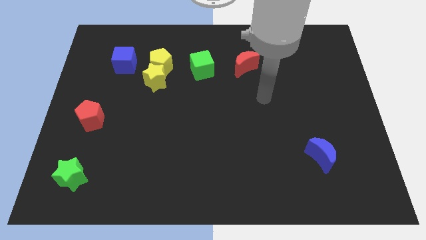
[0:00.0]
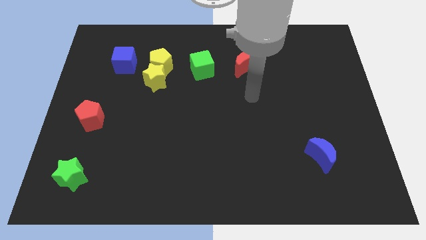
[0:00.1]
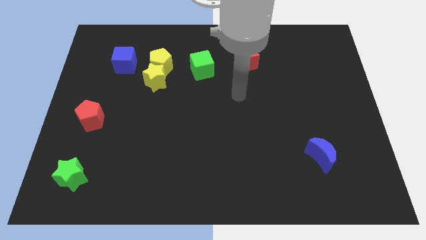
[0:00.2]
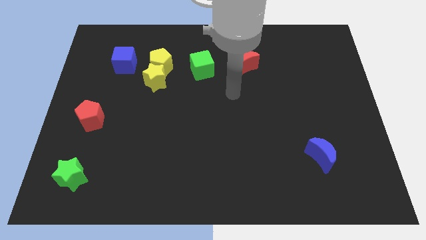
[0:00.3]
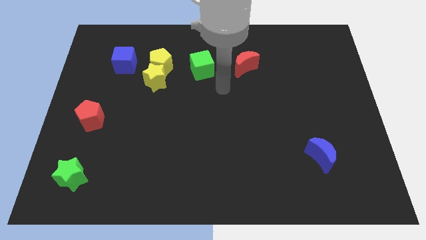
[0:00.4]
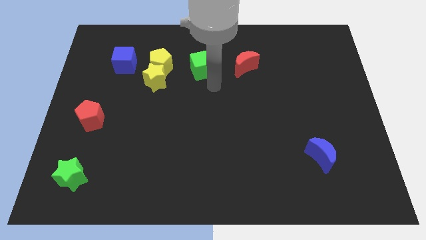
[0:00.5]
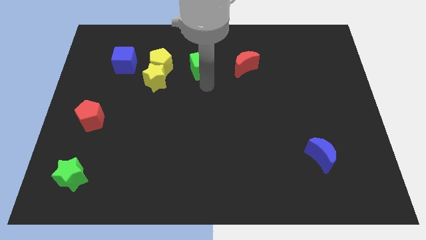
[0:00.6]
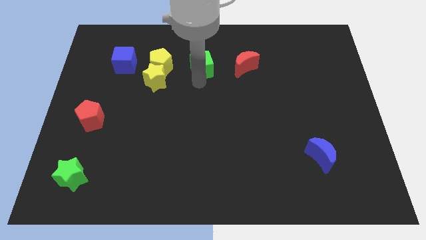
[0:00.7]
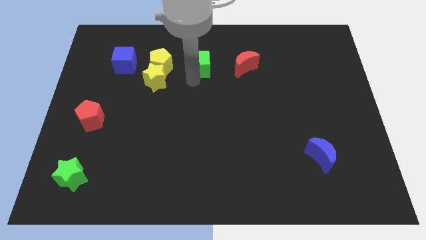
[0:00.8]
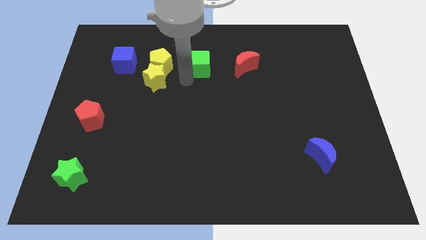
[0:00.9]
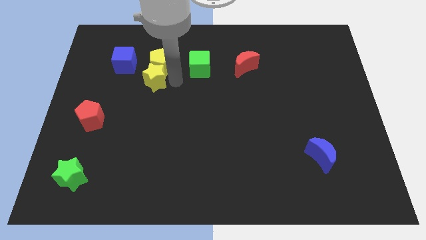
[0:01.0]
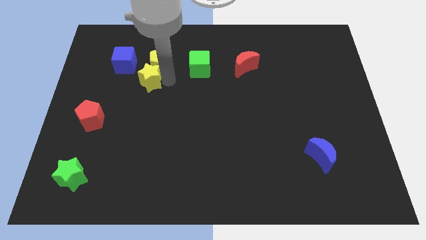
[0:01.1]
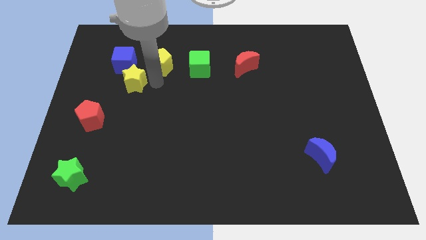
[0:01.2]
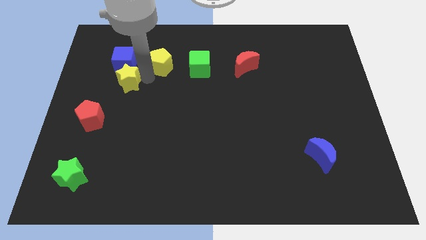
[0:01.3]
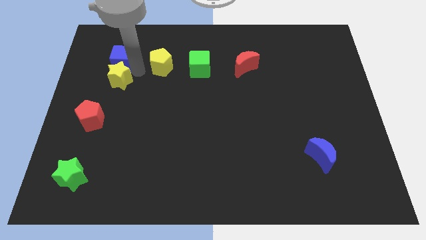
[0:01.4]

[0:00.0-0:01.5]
pull the yellow pentagon apart from the yellow star and blue cube

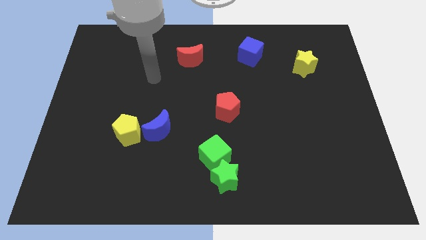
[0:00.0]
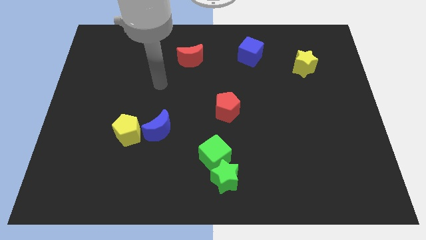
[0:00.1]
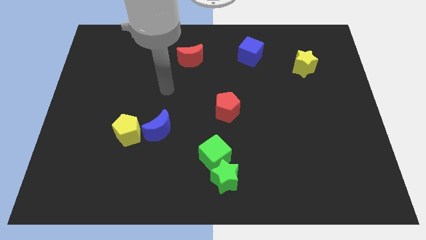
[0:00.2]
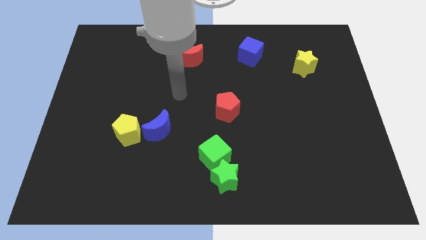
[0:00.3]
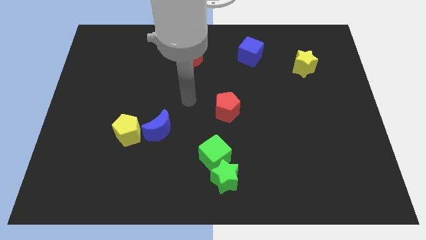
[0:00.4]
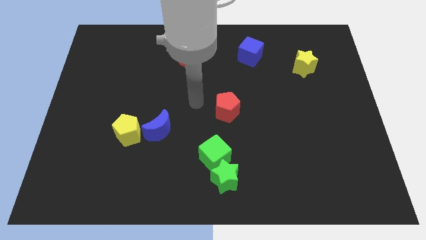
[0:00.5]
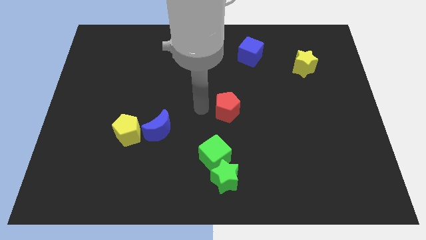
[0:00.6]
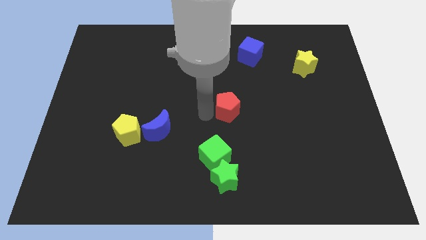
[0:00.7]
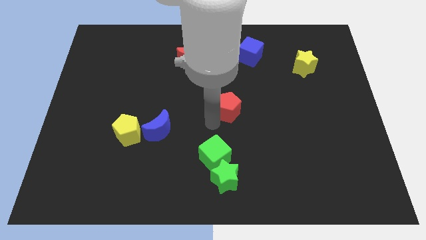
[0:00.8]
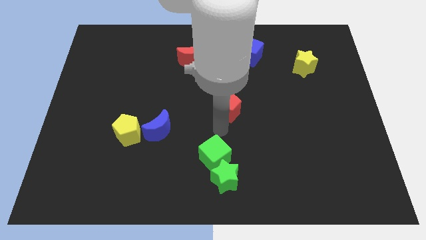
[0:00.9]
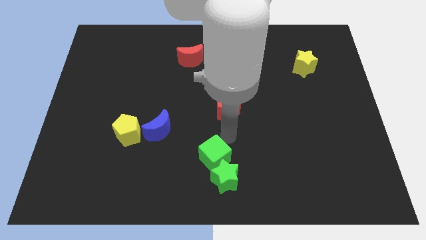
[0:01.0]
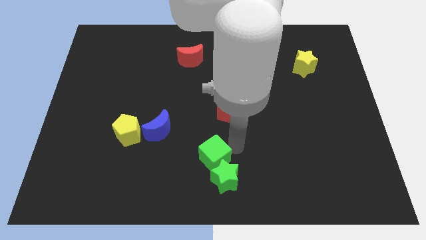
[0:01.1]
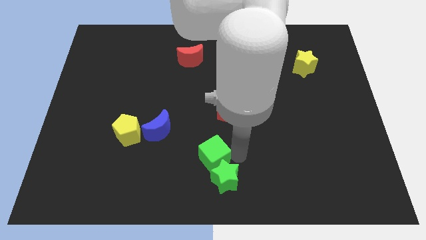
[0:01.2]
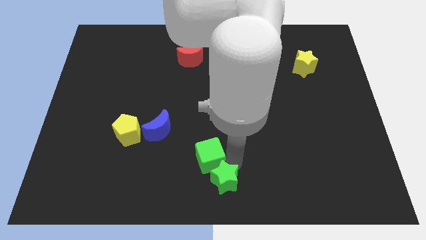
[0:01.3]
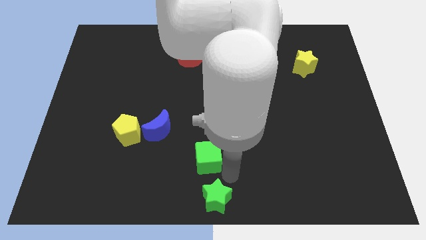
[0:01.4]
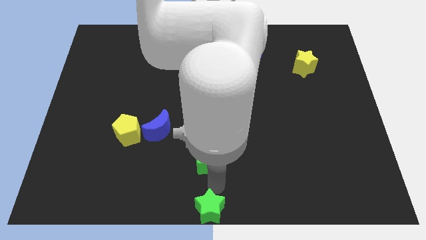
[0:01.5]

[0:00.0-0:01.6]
move the green cube away from the green star

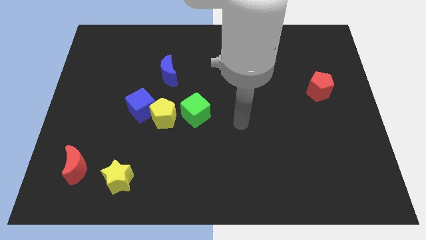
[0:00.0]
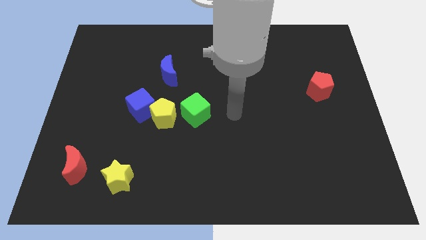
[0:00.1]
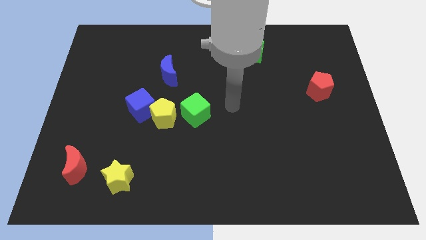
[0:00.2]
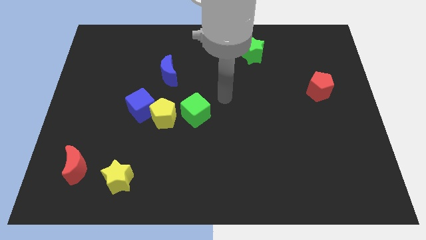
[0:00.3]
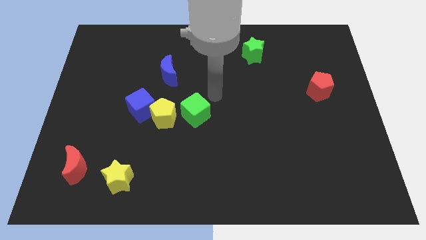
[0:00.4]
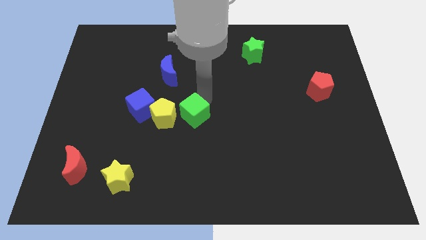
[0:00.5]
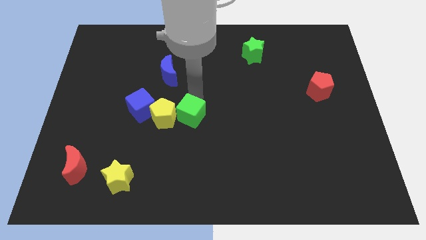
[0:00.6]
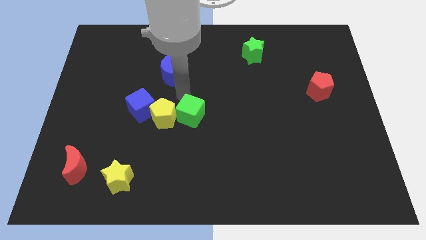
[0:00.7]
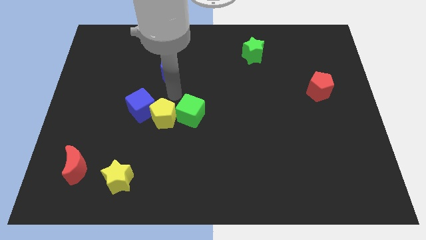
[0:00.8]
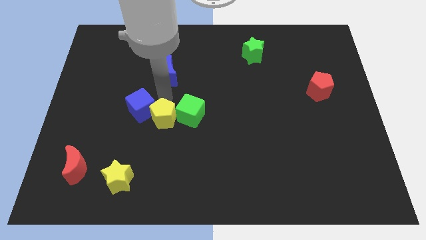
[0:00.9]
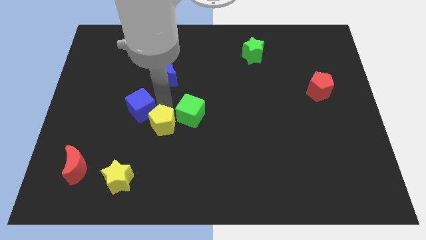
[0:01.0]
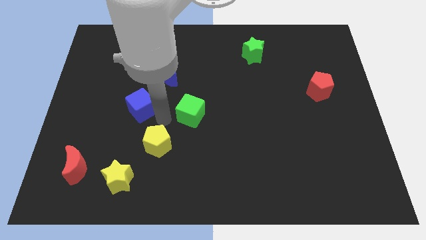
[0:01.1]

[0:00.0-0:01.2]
separate the blue cube from the yellow pentagon

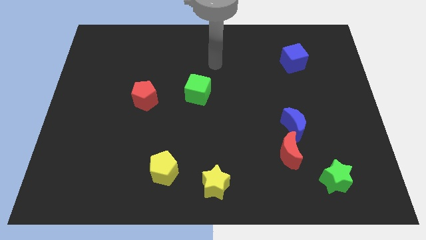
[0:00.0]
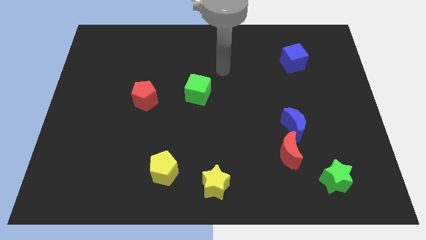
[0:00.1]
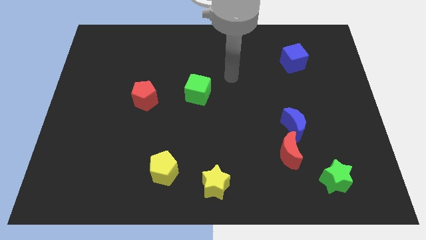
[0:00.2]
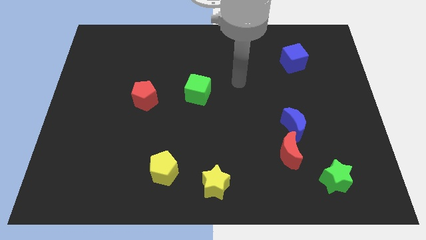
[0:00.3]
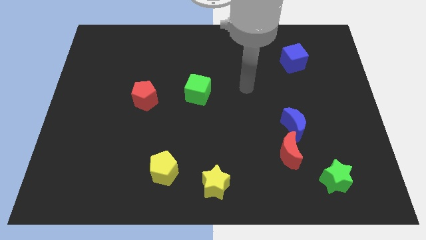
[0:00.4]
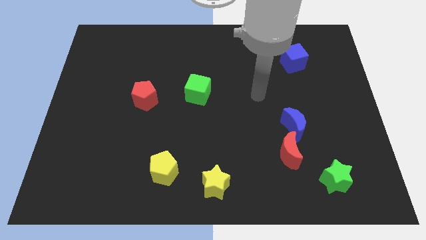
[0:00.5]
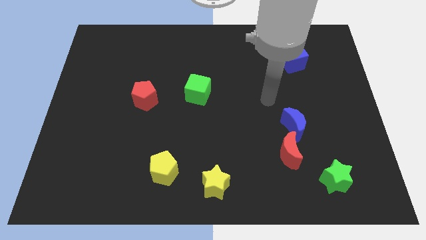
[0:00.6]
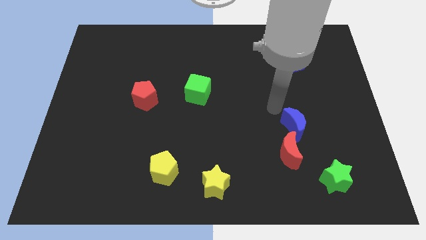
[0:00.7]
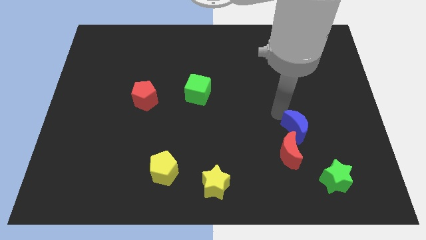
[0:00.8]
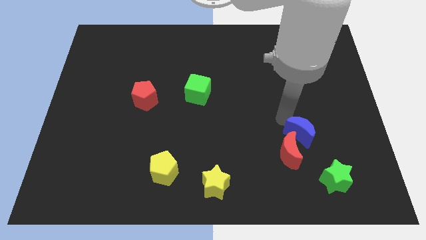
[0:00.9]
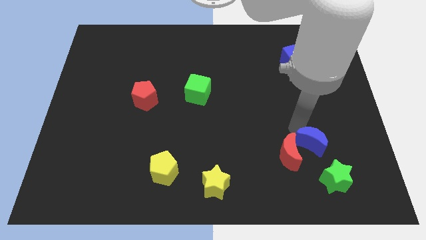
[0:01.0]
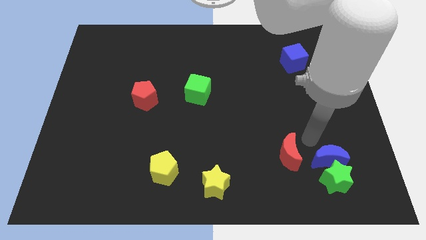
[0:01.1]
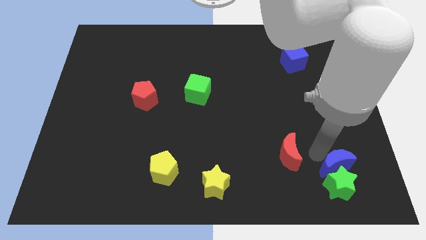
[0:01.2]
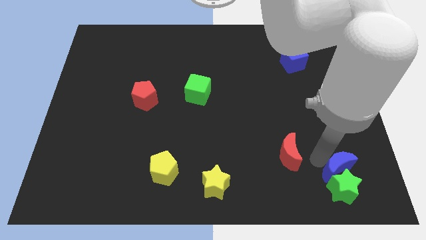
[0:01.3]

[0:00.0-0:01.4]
separate the red moon from the blue moon

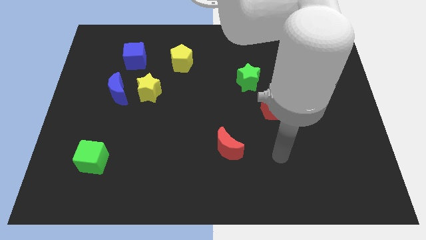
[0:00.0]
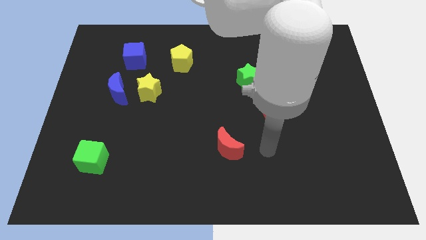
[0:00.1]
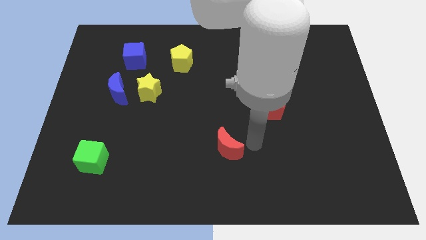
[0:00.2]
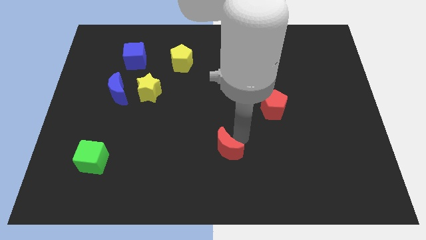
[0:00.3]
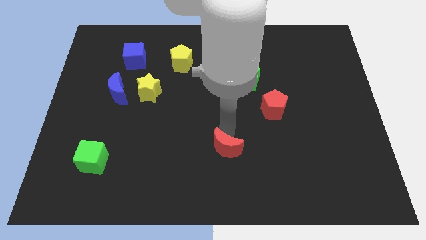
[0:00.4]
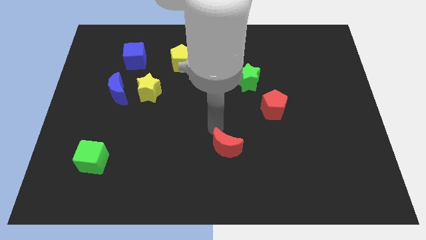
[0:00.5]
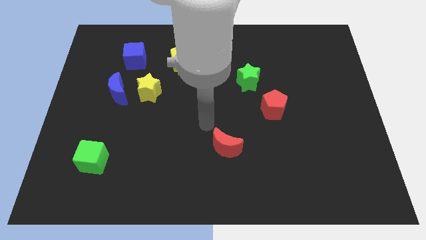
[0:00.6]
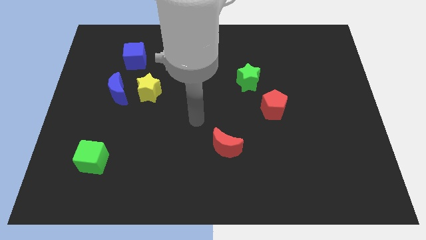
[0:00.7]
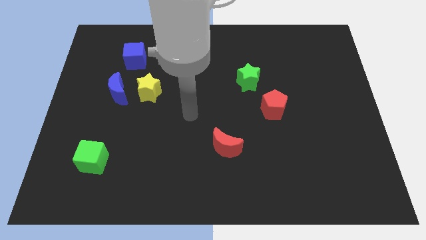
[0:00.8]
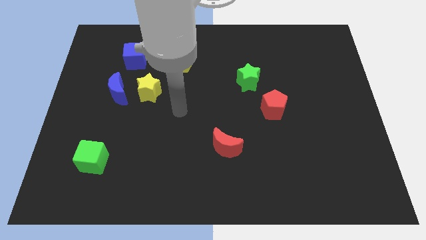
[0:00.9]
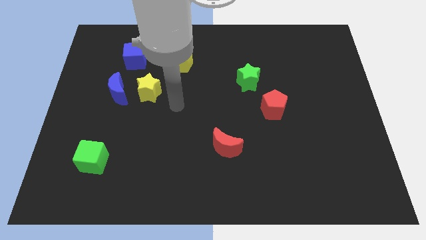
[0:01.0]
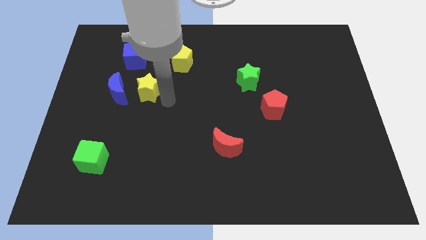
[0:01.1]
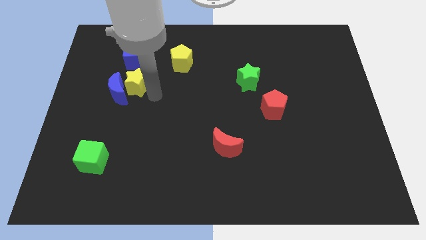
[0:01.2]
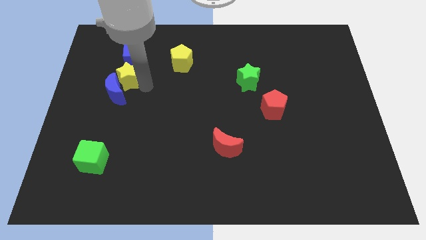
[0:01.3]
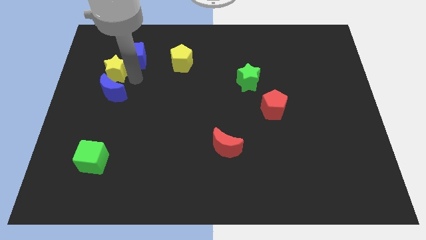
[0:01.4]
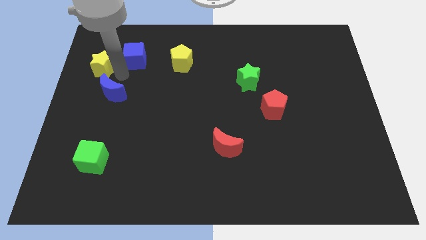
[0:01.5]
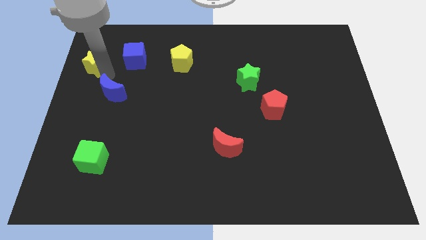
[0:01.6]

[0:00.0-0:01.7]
move the blue moon away from the yellow star

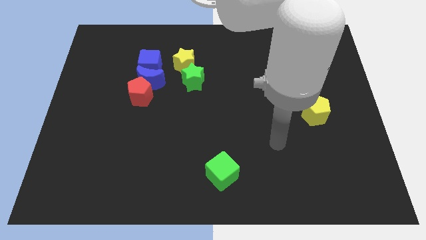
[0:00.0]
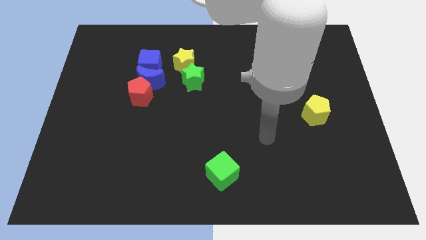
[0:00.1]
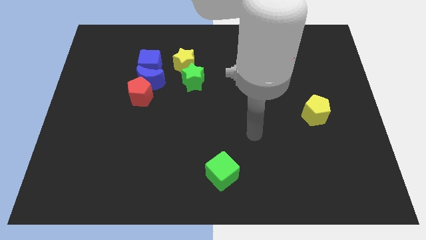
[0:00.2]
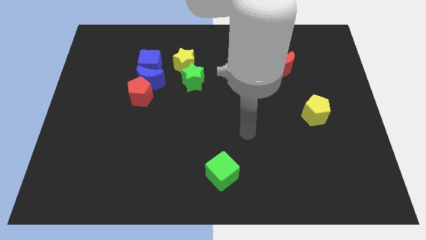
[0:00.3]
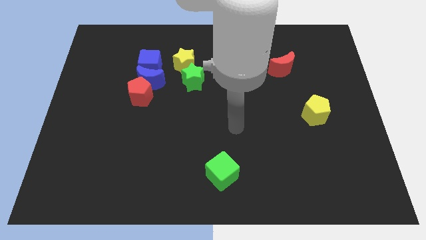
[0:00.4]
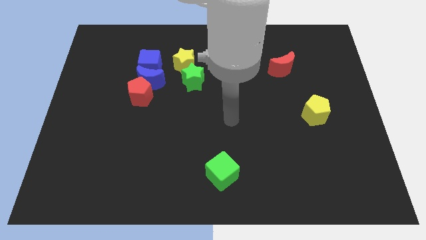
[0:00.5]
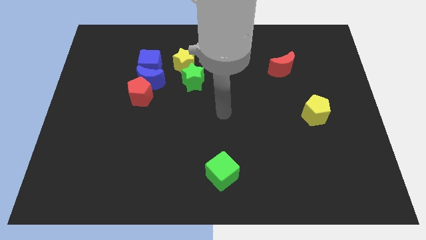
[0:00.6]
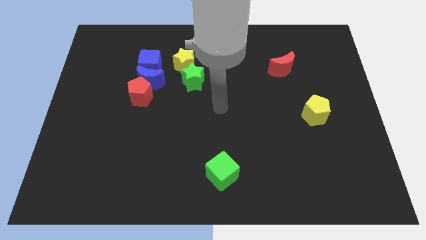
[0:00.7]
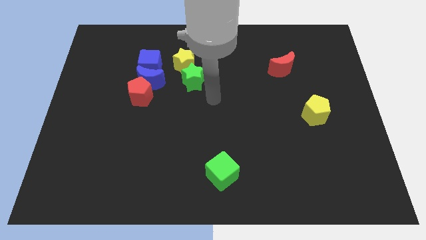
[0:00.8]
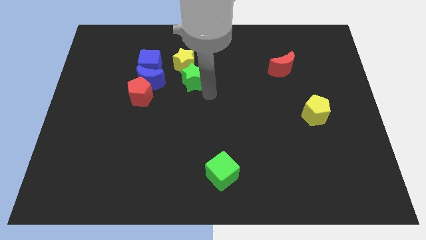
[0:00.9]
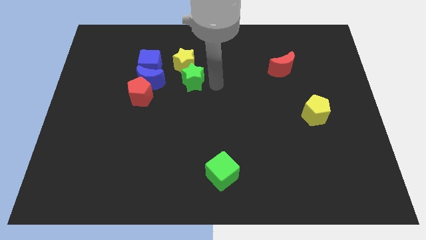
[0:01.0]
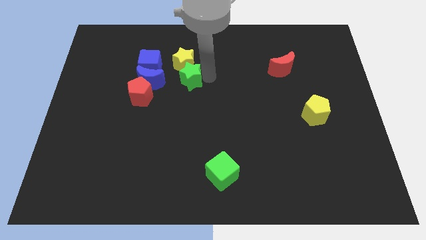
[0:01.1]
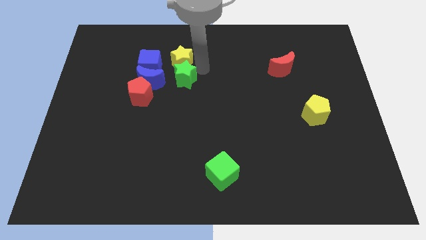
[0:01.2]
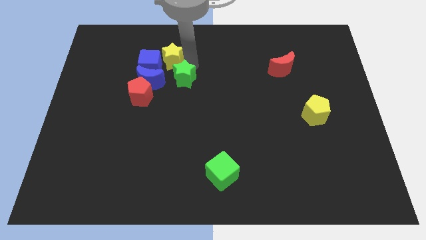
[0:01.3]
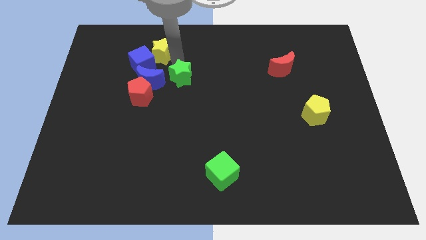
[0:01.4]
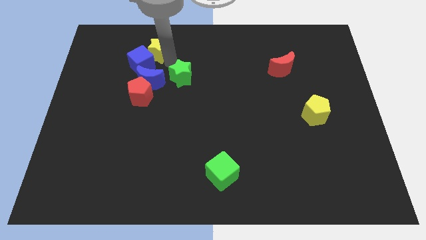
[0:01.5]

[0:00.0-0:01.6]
pull the green star apart from the yellow star

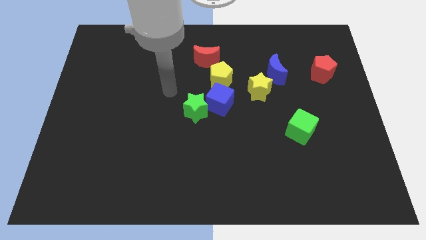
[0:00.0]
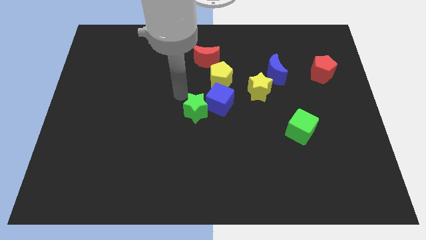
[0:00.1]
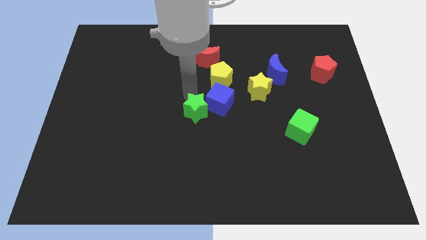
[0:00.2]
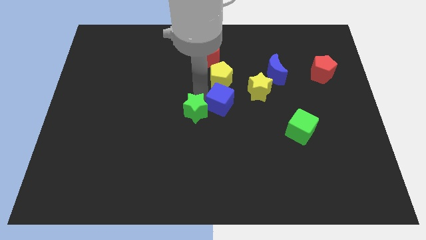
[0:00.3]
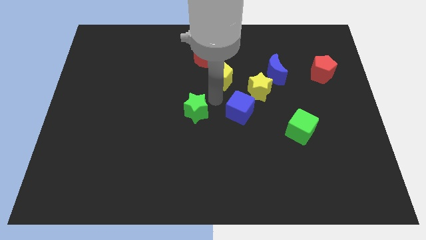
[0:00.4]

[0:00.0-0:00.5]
move the green star away from the blue cube
